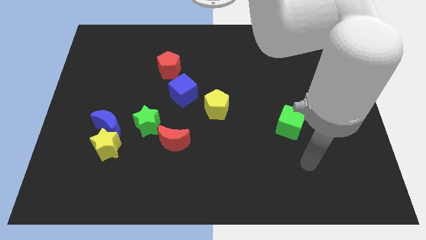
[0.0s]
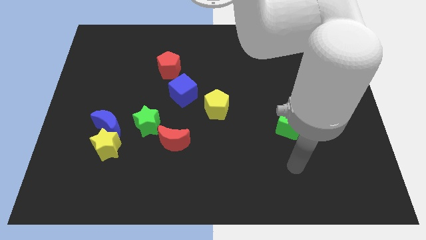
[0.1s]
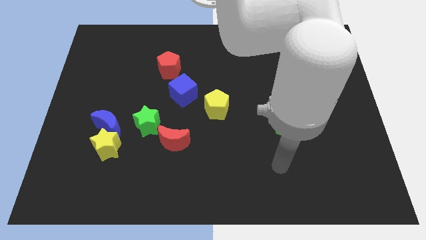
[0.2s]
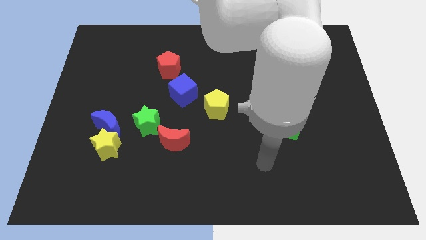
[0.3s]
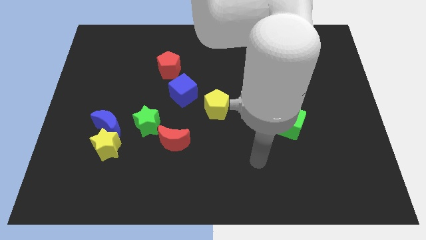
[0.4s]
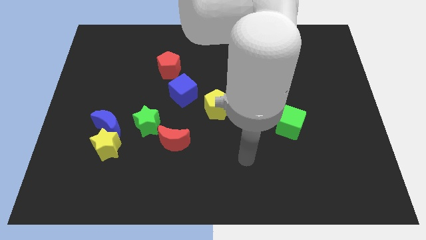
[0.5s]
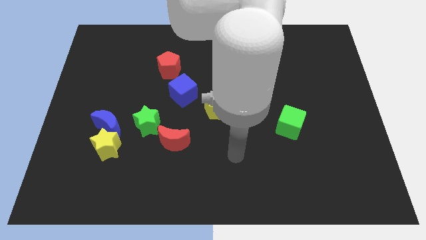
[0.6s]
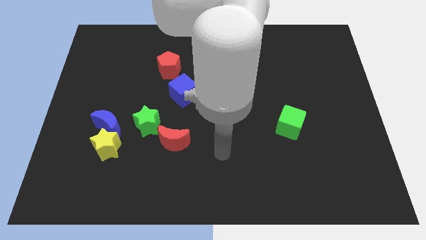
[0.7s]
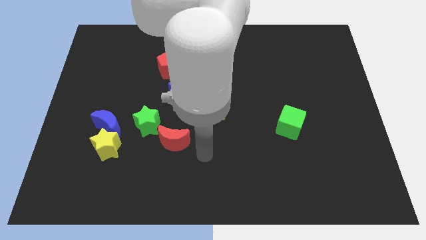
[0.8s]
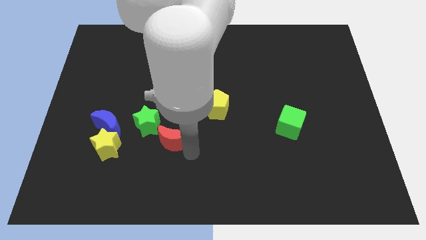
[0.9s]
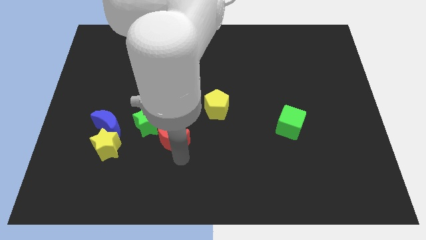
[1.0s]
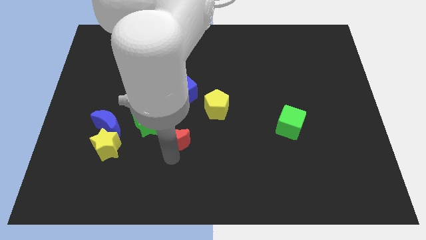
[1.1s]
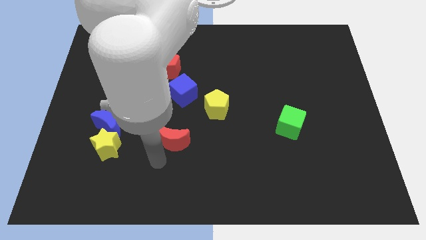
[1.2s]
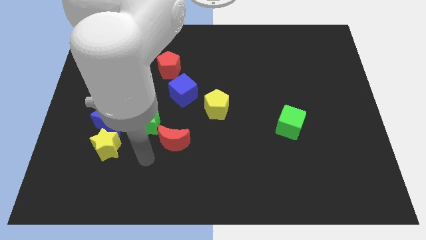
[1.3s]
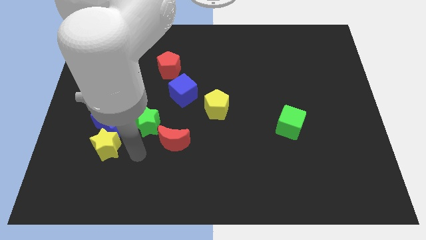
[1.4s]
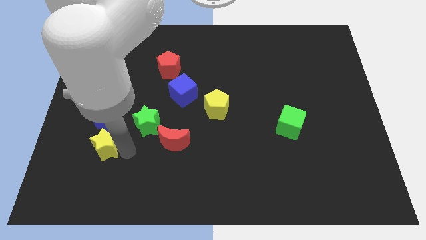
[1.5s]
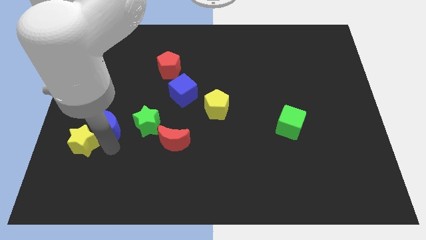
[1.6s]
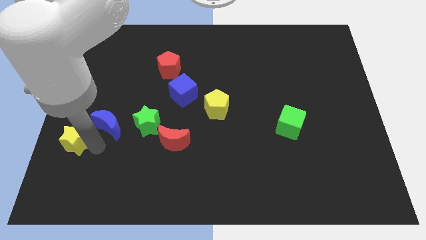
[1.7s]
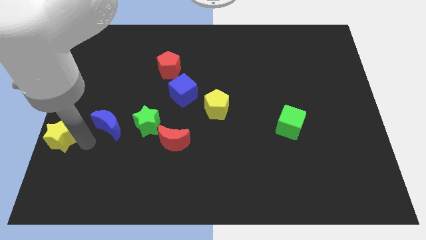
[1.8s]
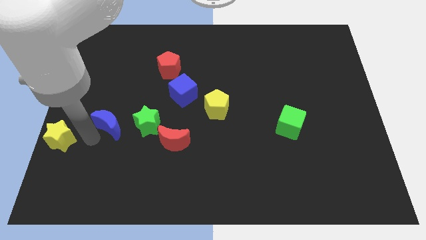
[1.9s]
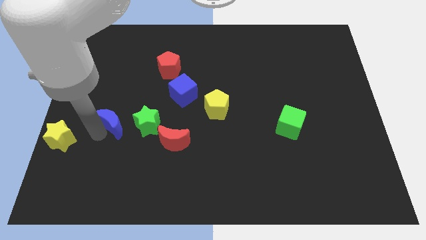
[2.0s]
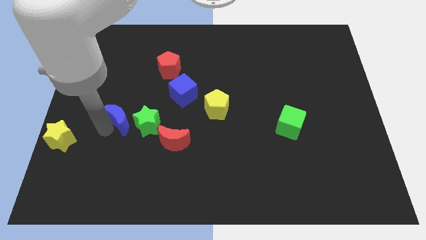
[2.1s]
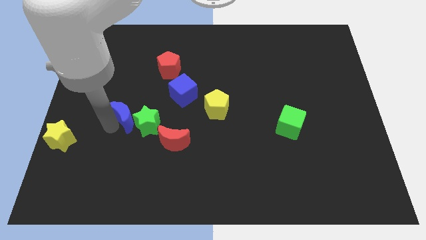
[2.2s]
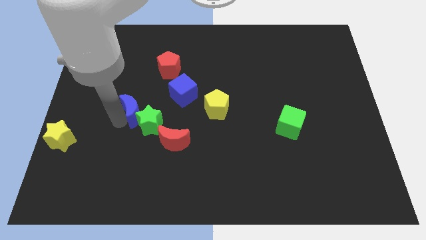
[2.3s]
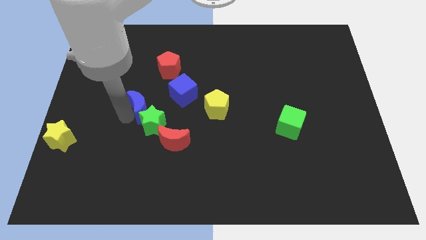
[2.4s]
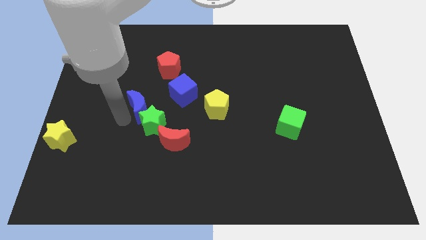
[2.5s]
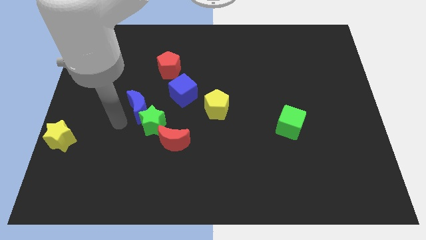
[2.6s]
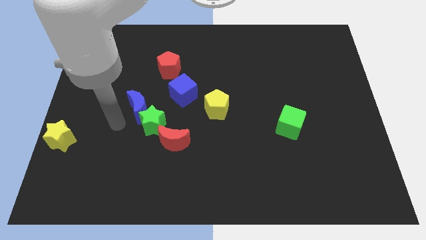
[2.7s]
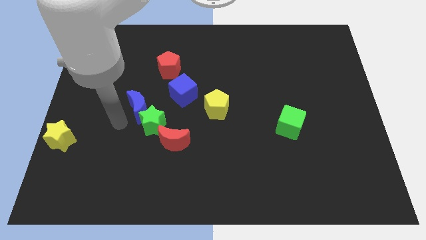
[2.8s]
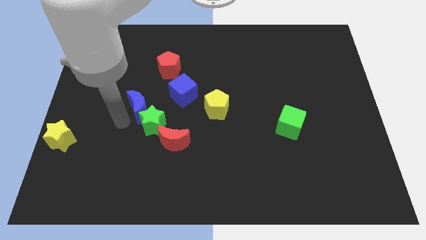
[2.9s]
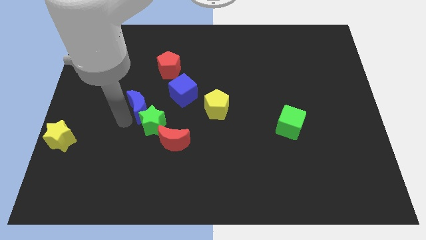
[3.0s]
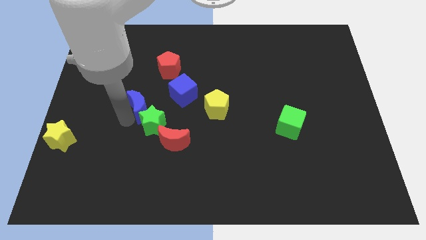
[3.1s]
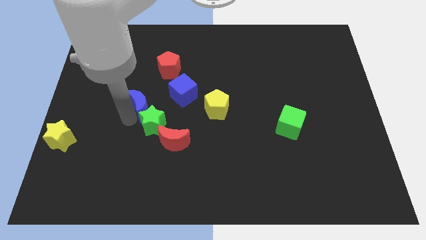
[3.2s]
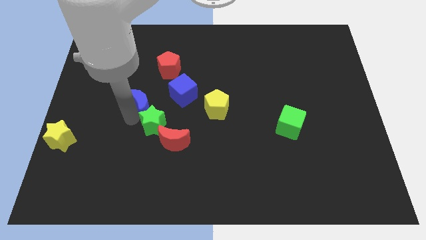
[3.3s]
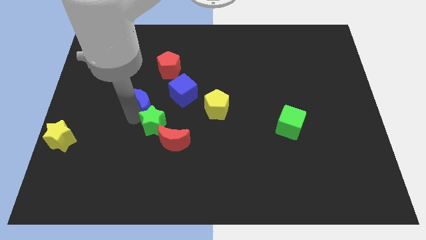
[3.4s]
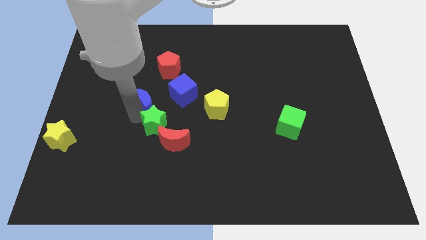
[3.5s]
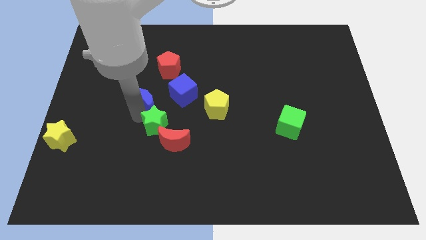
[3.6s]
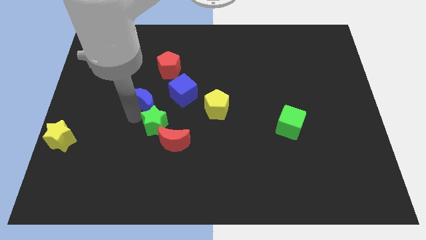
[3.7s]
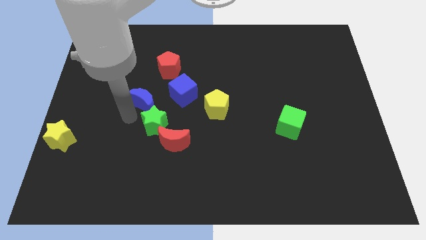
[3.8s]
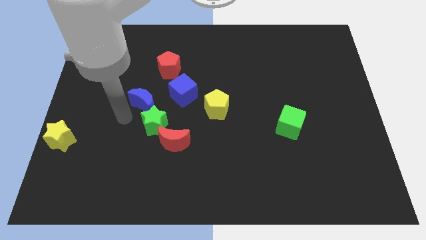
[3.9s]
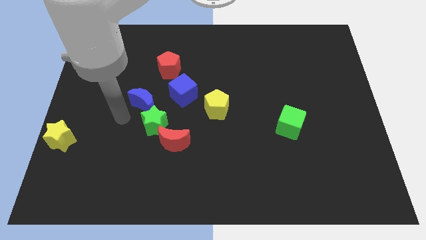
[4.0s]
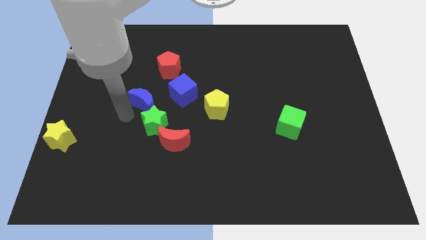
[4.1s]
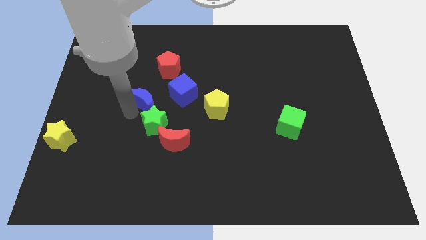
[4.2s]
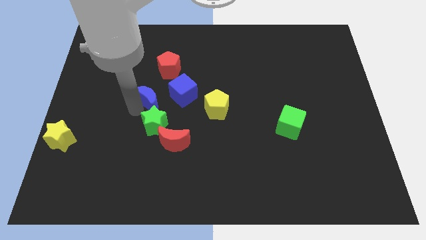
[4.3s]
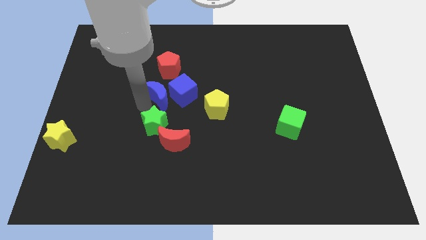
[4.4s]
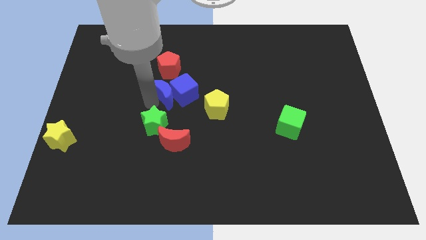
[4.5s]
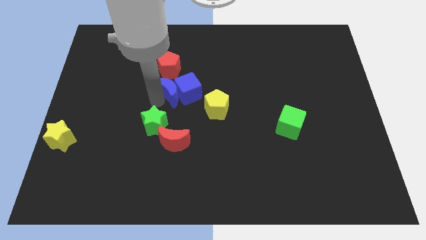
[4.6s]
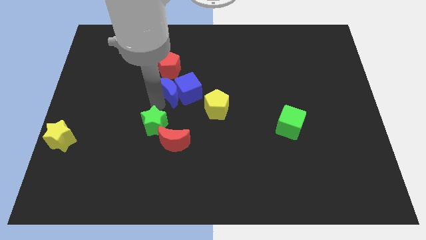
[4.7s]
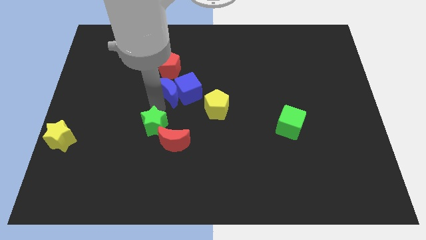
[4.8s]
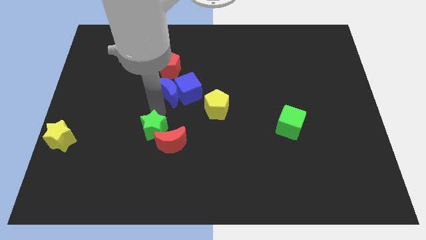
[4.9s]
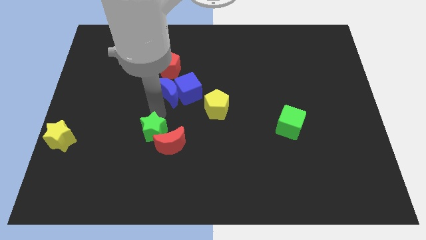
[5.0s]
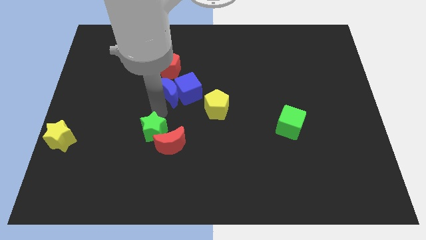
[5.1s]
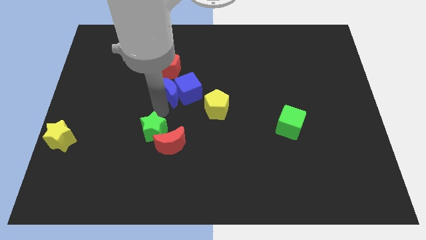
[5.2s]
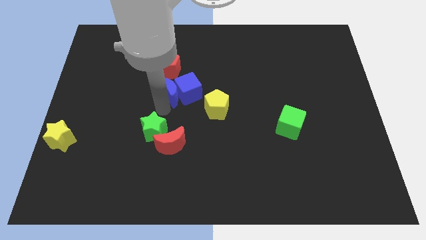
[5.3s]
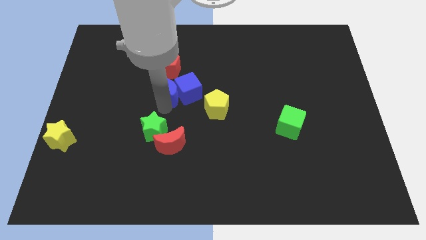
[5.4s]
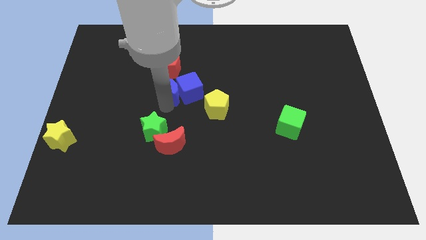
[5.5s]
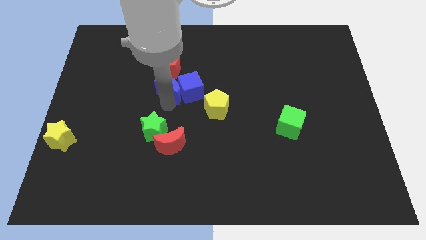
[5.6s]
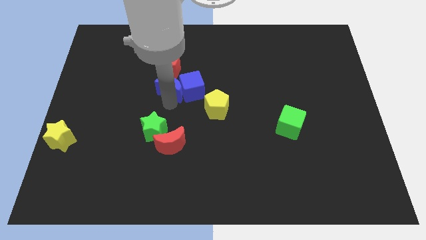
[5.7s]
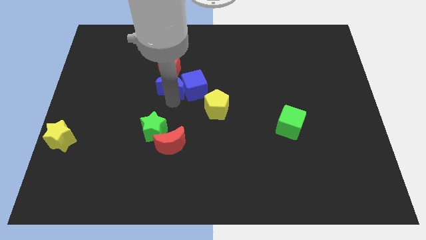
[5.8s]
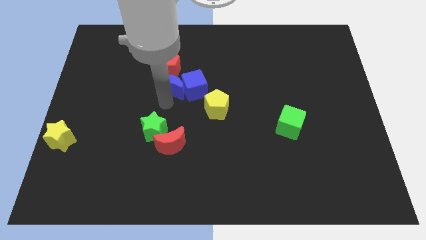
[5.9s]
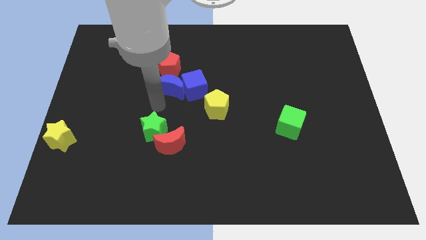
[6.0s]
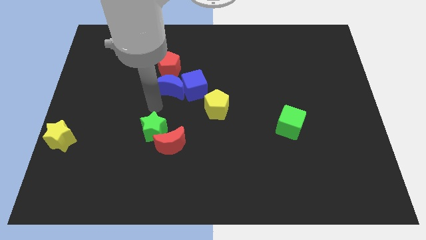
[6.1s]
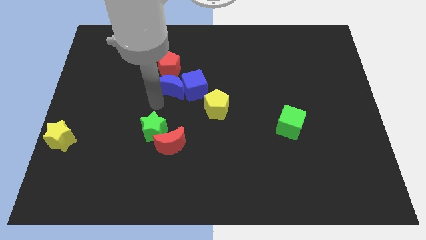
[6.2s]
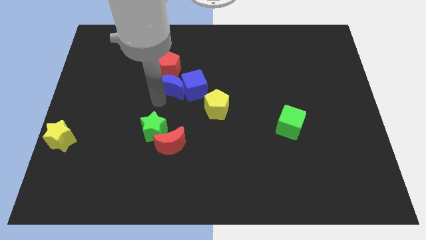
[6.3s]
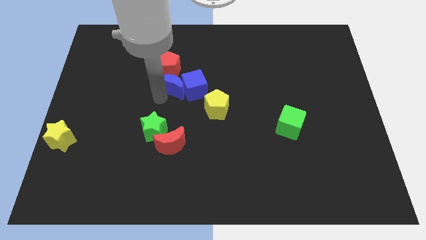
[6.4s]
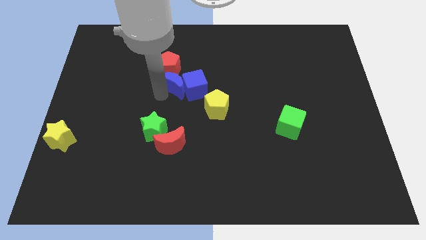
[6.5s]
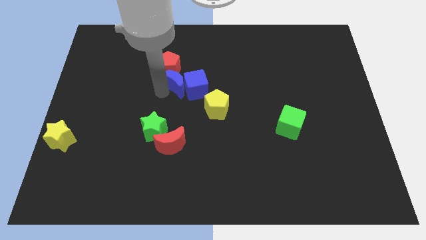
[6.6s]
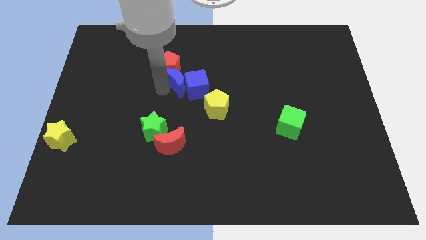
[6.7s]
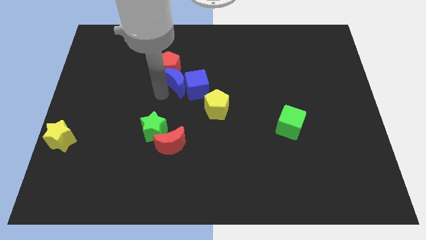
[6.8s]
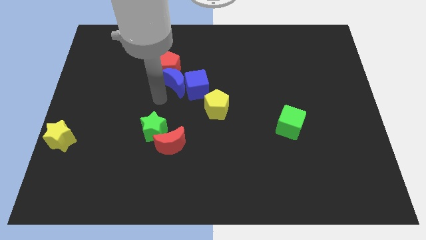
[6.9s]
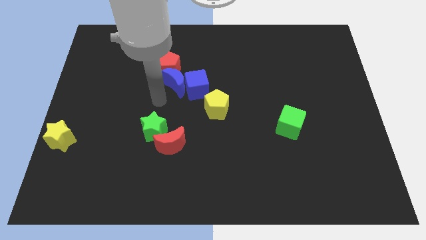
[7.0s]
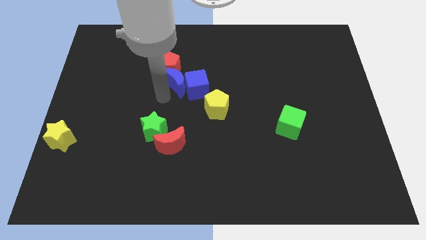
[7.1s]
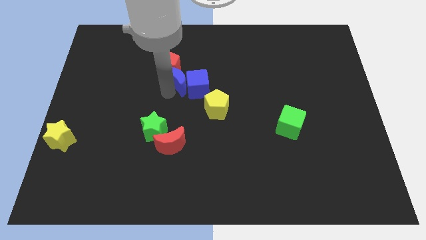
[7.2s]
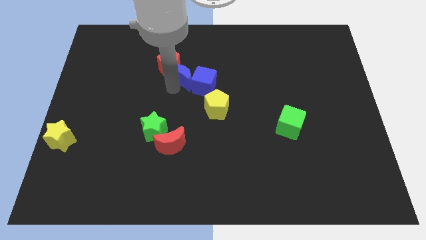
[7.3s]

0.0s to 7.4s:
move the blue moon upwards and then right

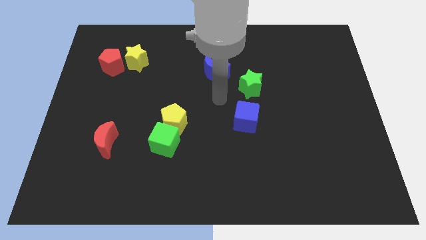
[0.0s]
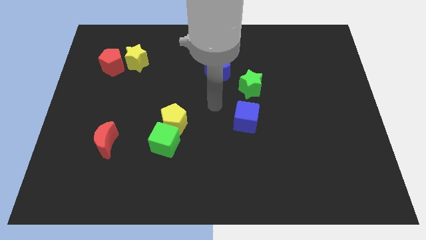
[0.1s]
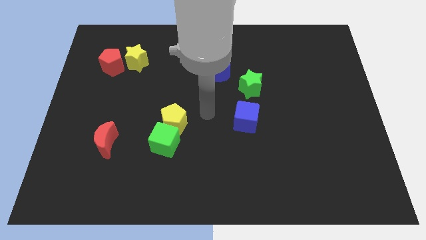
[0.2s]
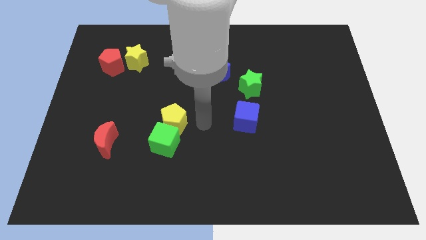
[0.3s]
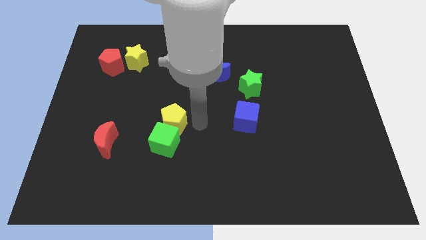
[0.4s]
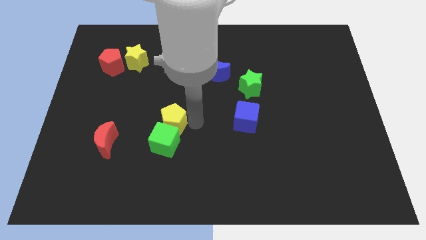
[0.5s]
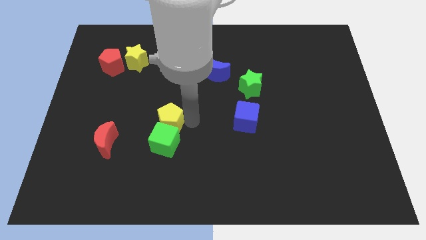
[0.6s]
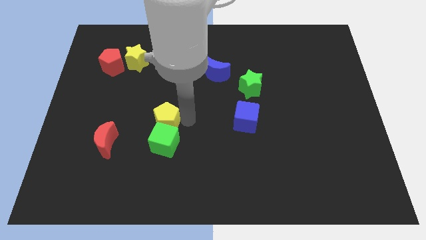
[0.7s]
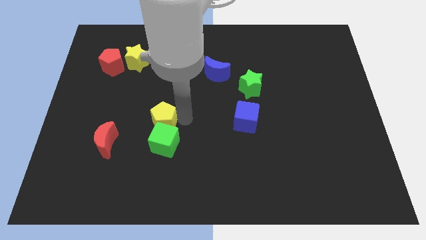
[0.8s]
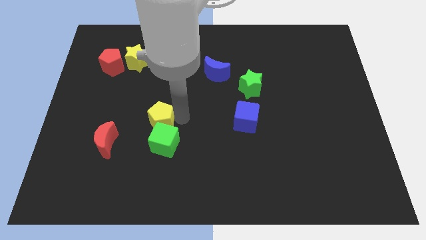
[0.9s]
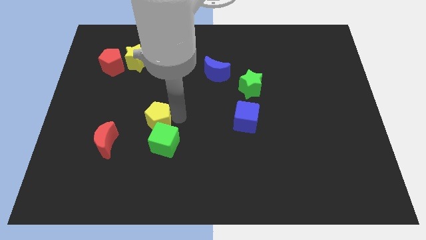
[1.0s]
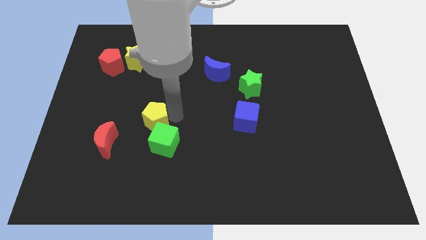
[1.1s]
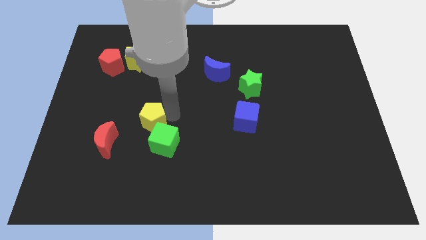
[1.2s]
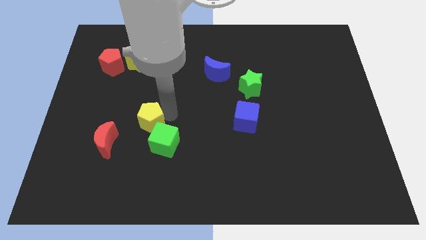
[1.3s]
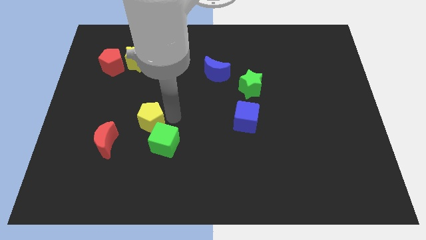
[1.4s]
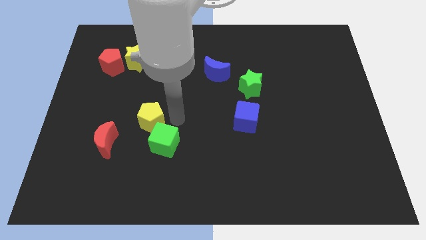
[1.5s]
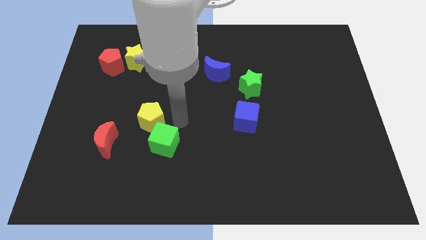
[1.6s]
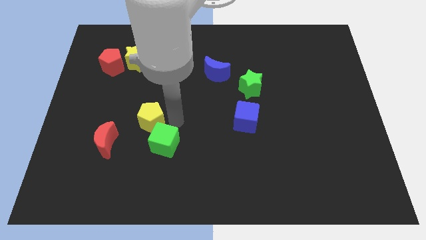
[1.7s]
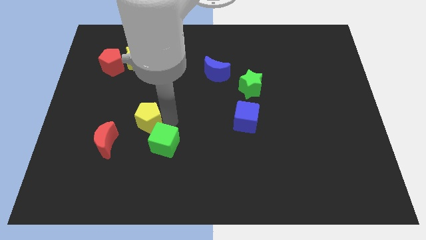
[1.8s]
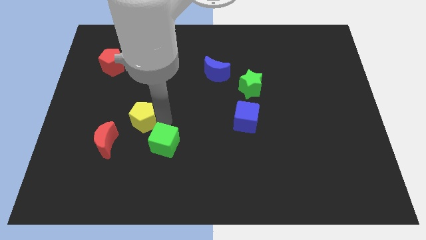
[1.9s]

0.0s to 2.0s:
slide the yellow pentagon a little bit to the left
